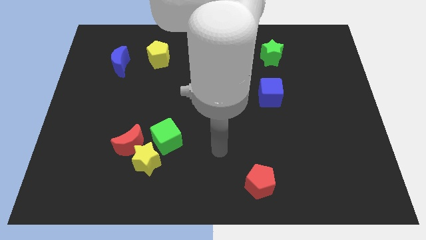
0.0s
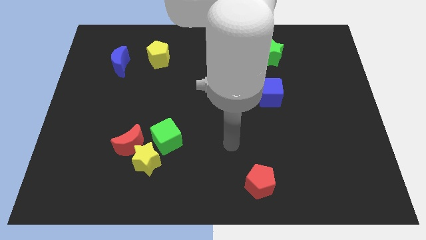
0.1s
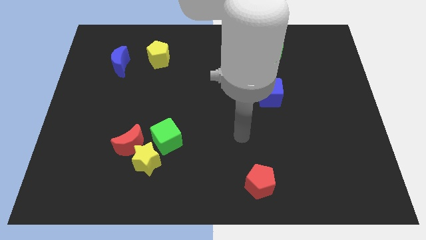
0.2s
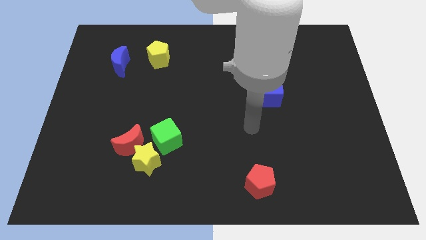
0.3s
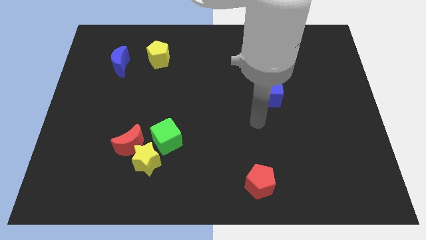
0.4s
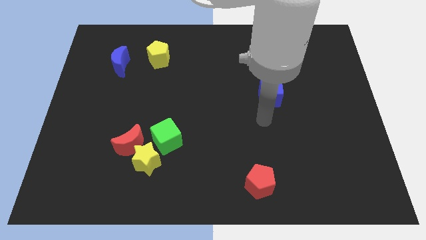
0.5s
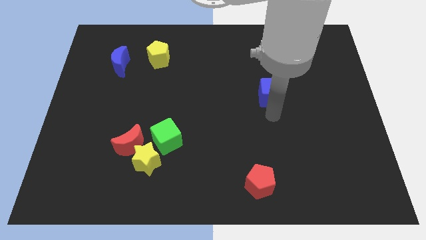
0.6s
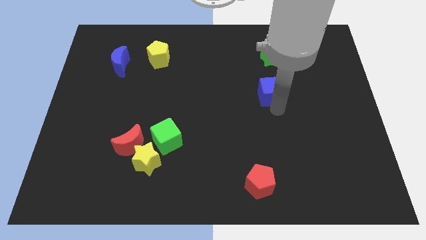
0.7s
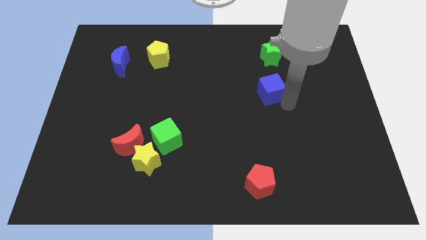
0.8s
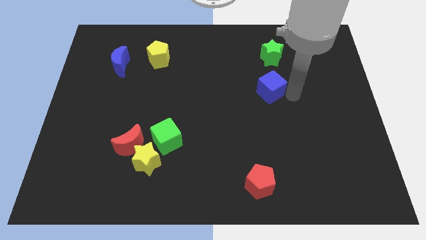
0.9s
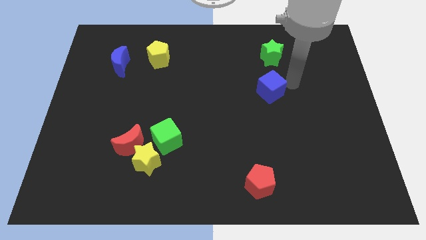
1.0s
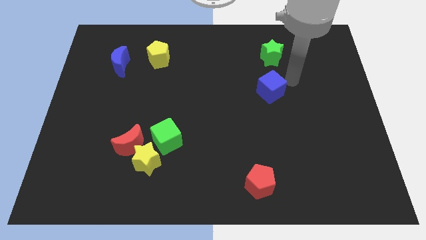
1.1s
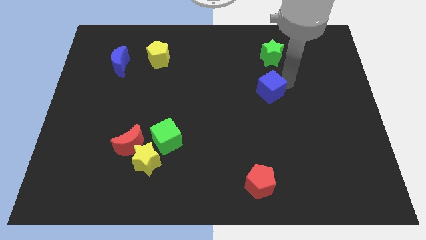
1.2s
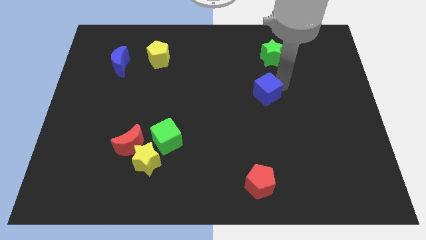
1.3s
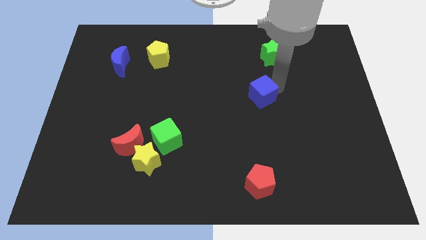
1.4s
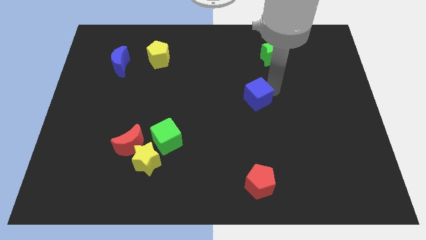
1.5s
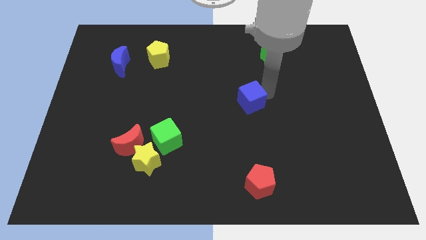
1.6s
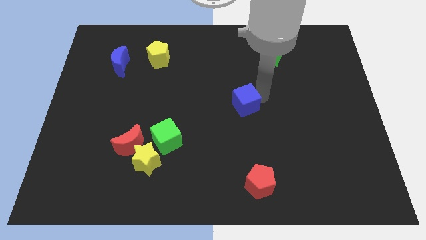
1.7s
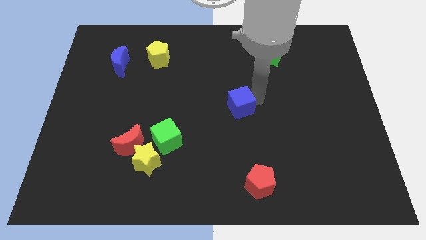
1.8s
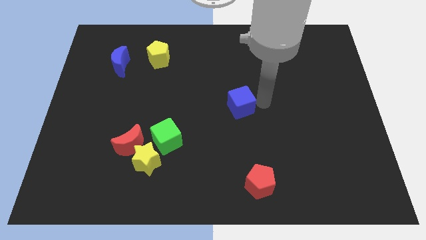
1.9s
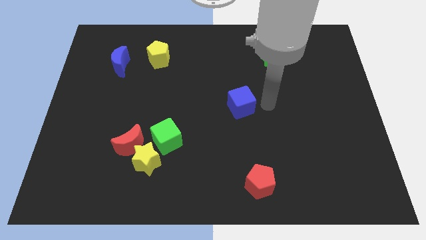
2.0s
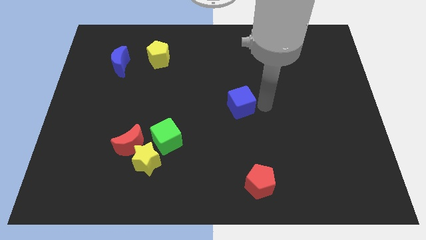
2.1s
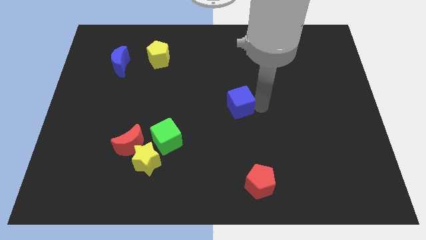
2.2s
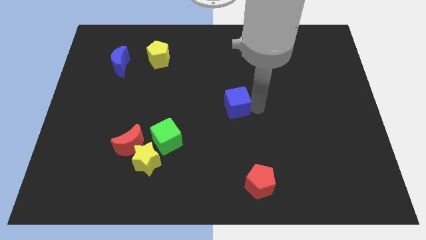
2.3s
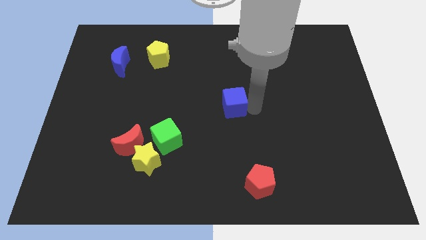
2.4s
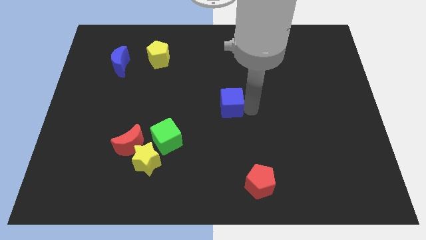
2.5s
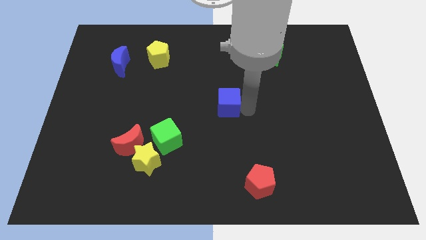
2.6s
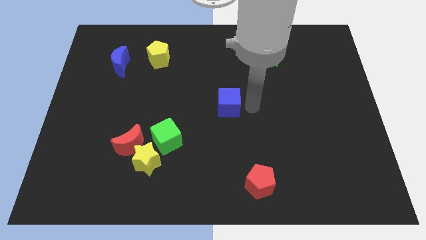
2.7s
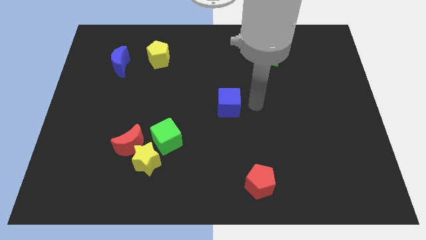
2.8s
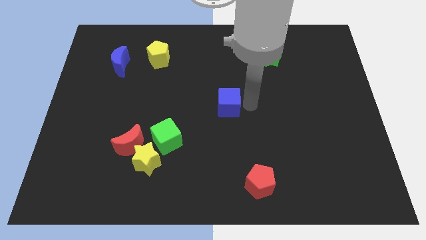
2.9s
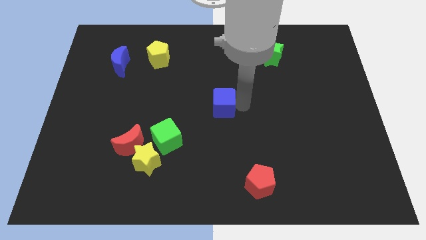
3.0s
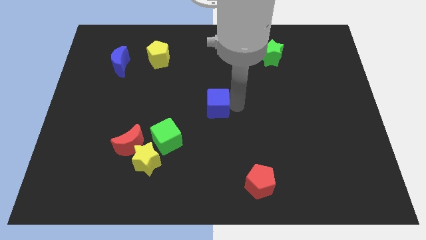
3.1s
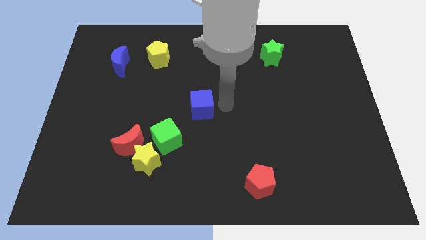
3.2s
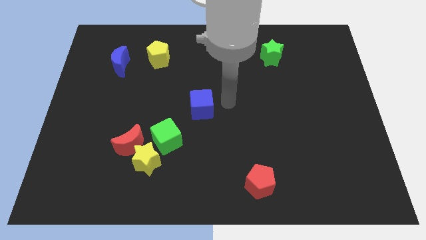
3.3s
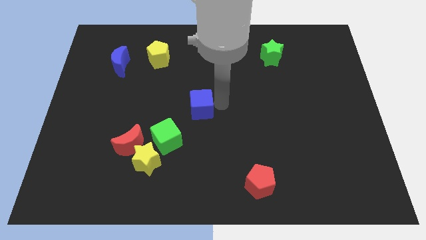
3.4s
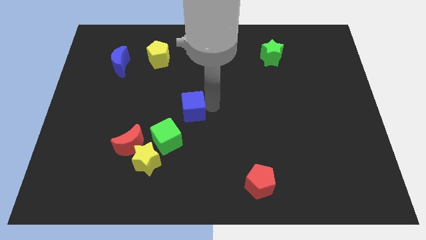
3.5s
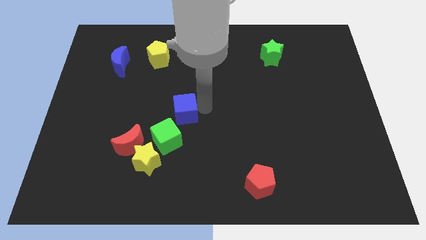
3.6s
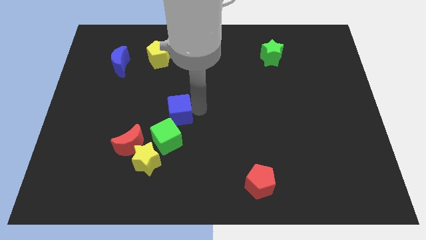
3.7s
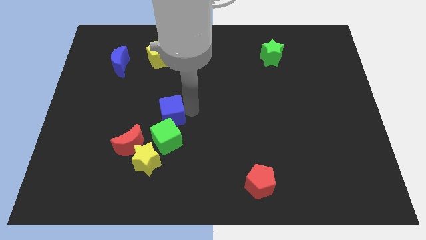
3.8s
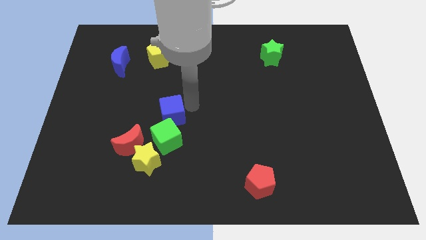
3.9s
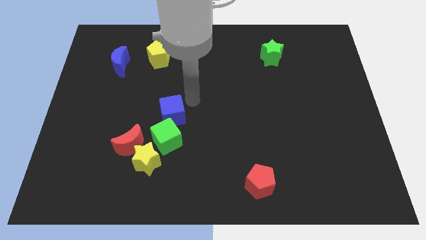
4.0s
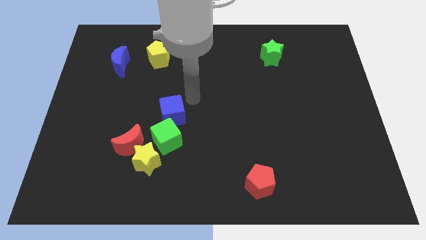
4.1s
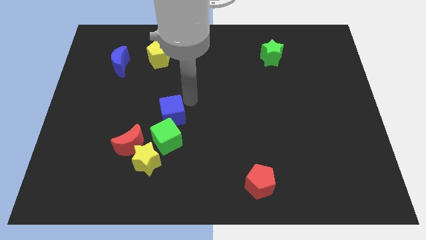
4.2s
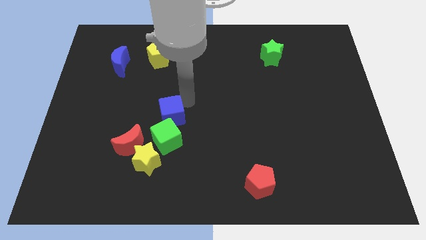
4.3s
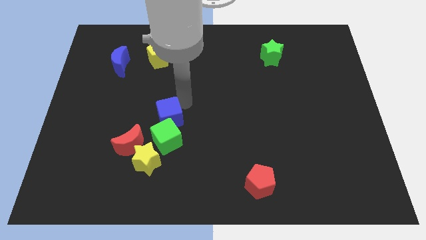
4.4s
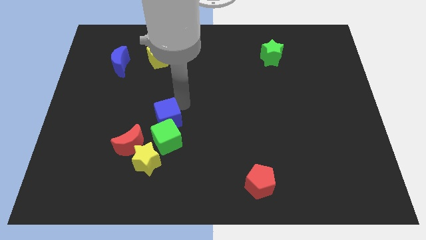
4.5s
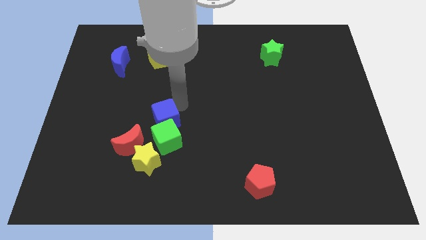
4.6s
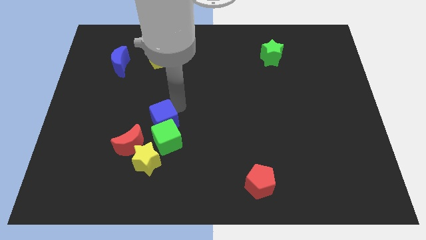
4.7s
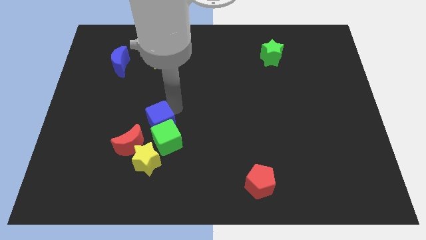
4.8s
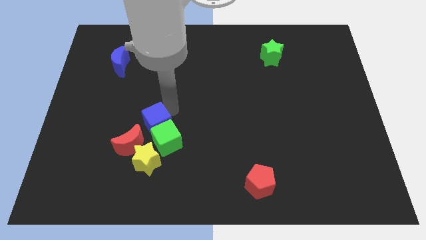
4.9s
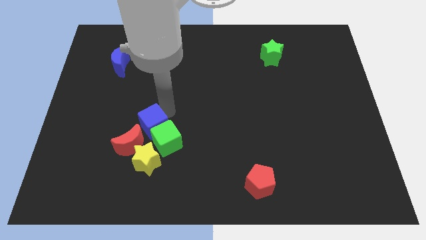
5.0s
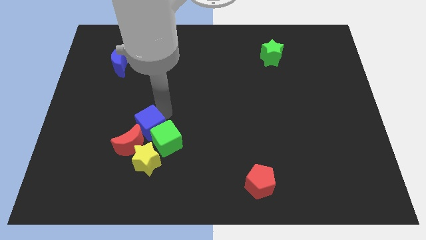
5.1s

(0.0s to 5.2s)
push the blue cube to the red moon

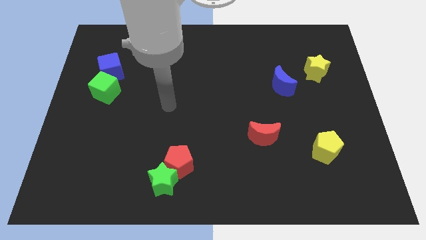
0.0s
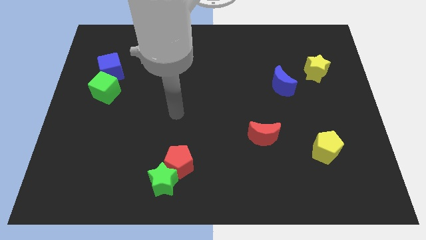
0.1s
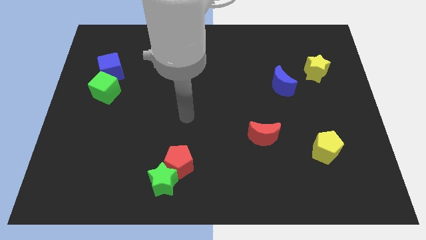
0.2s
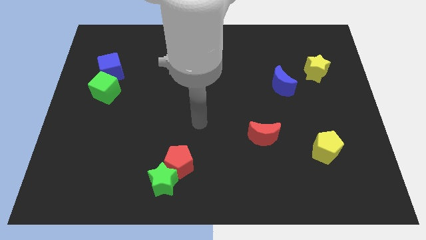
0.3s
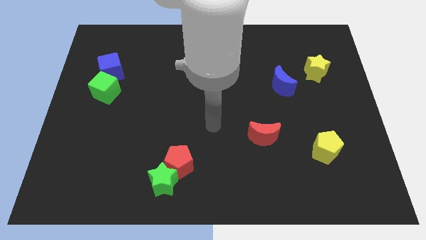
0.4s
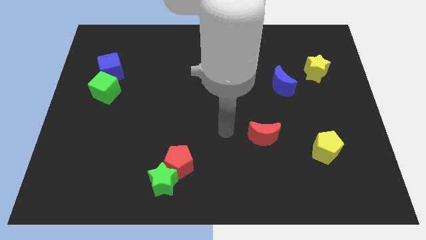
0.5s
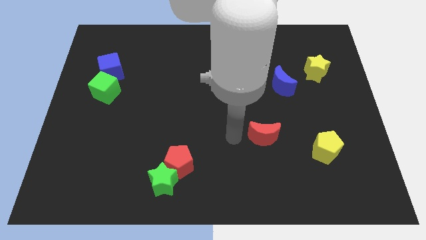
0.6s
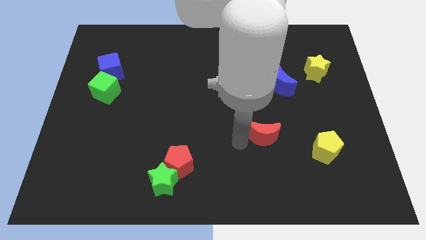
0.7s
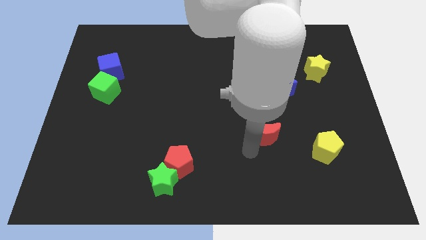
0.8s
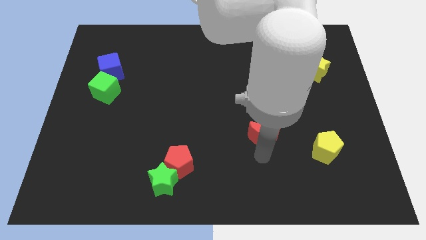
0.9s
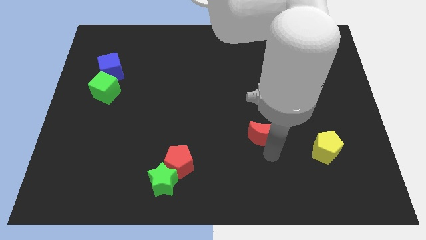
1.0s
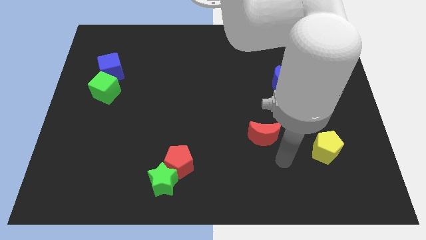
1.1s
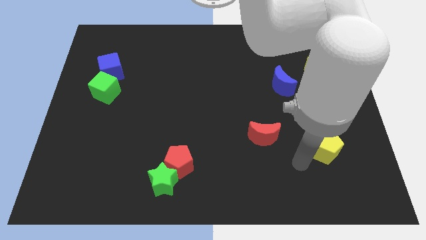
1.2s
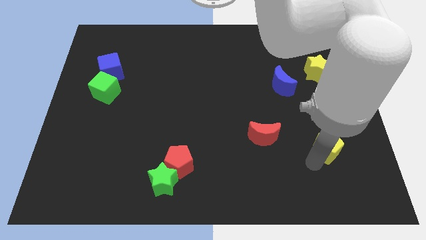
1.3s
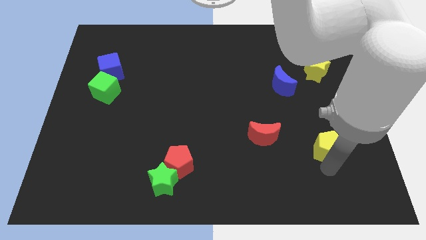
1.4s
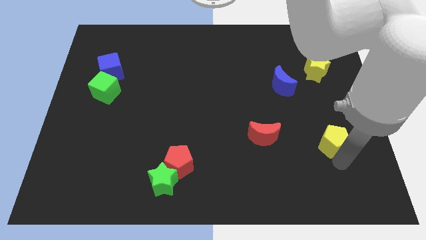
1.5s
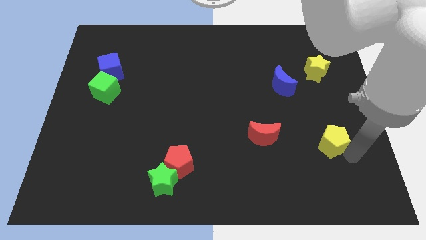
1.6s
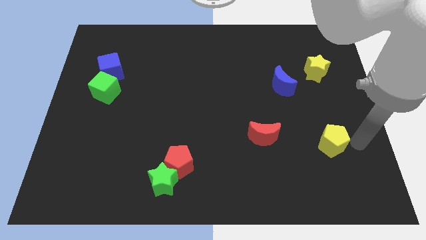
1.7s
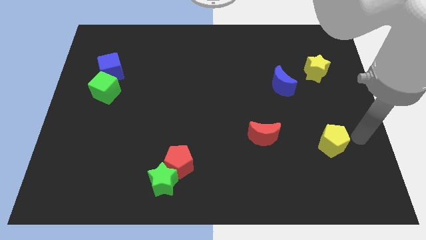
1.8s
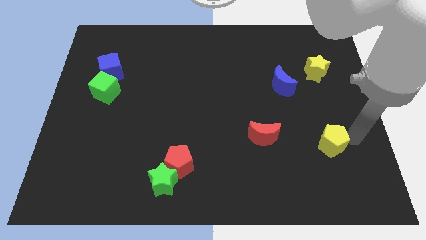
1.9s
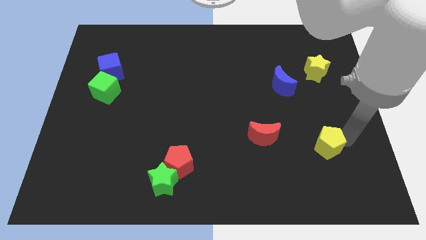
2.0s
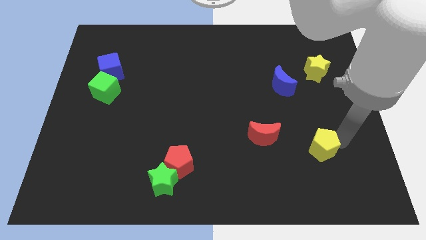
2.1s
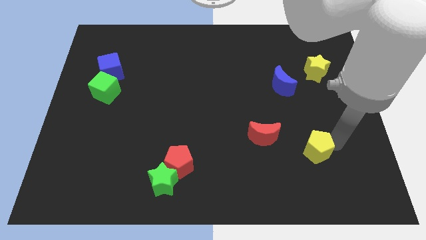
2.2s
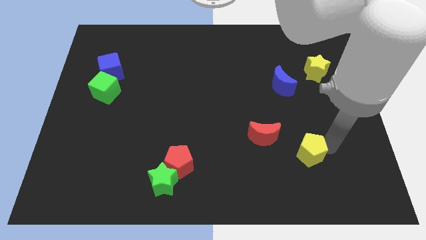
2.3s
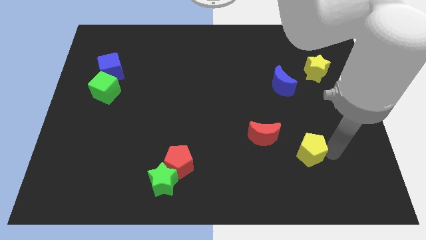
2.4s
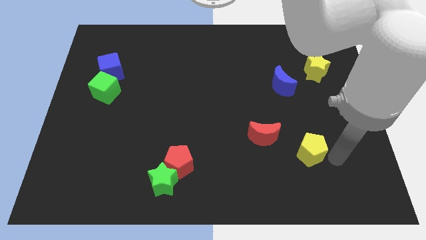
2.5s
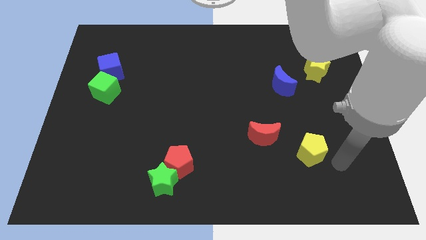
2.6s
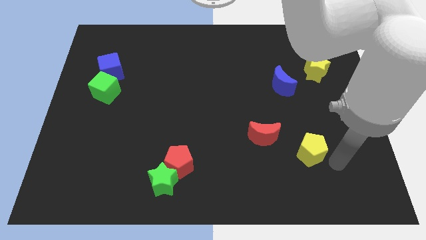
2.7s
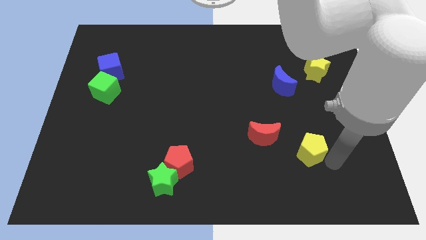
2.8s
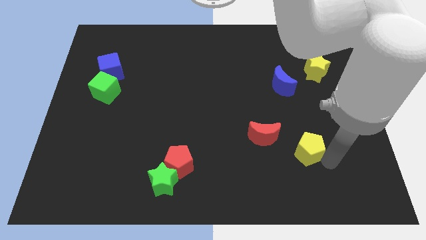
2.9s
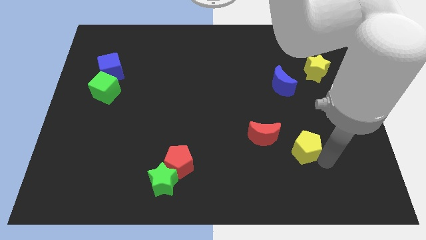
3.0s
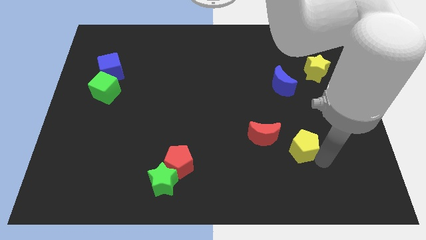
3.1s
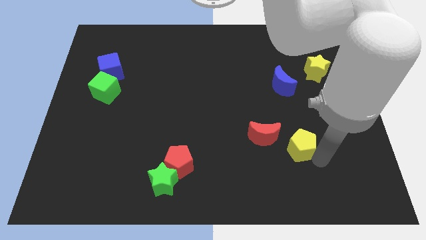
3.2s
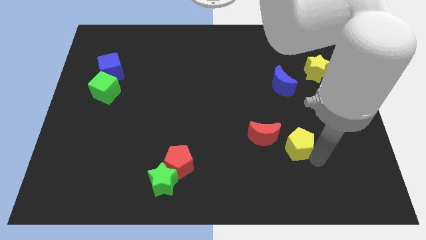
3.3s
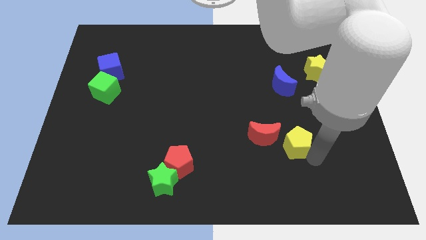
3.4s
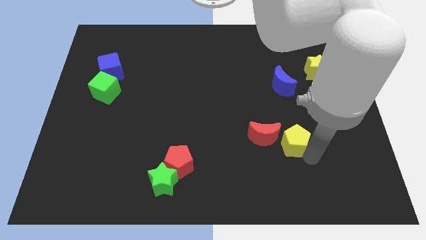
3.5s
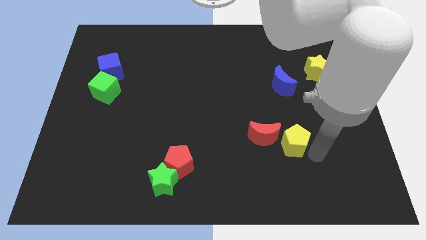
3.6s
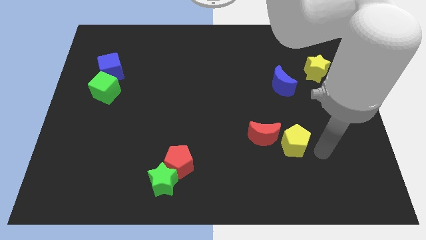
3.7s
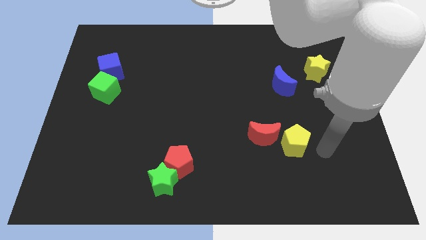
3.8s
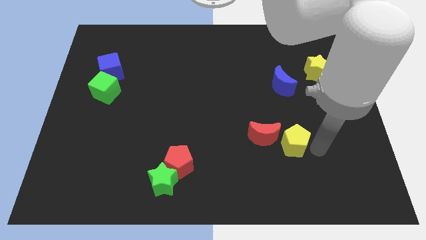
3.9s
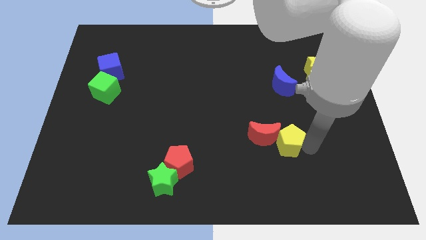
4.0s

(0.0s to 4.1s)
move the yellow pentagon next to the red moon
